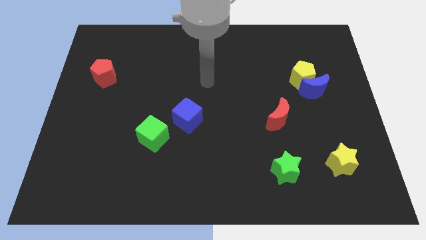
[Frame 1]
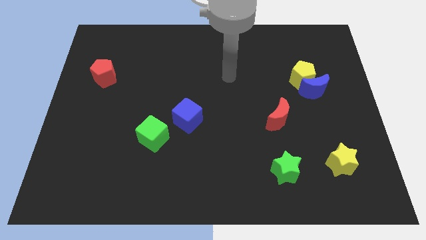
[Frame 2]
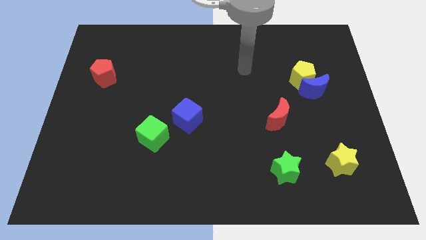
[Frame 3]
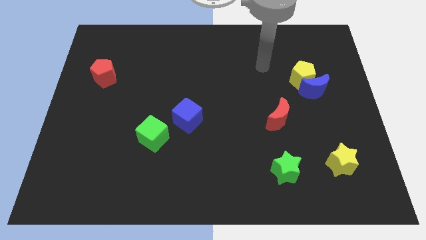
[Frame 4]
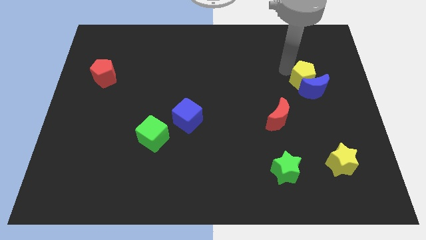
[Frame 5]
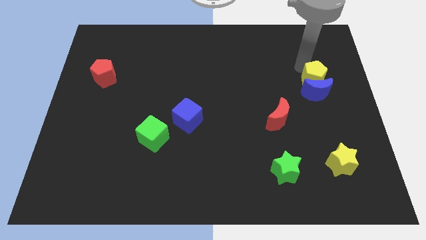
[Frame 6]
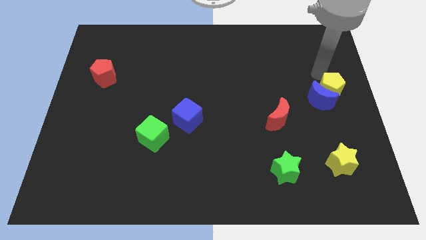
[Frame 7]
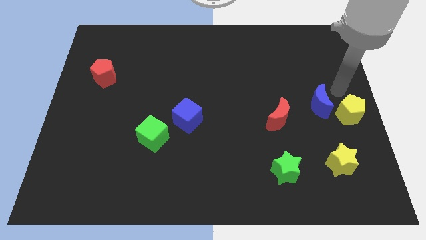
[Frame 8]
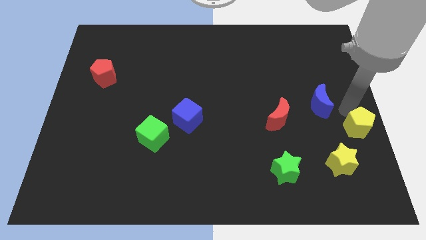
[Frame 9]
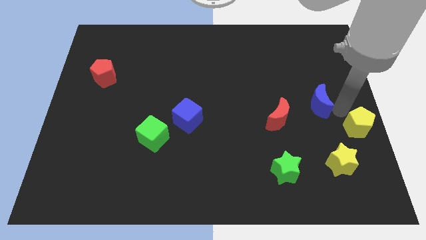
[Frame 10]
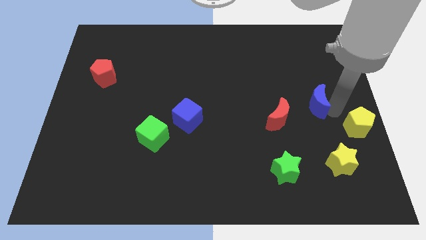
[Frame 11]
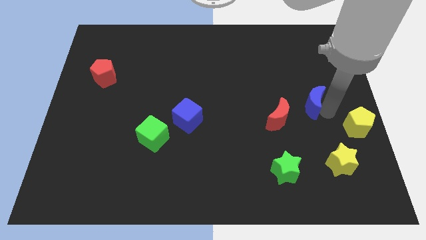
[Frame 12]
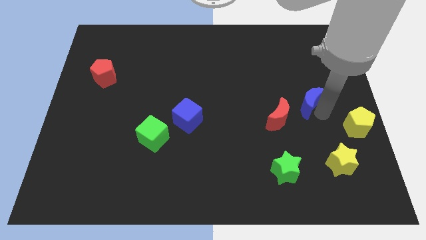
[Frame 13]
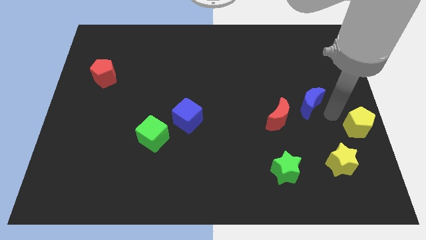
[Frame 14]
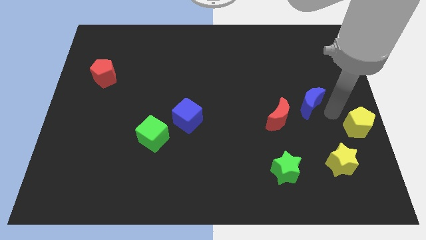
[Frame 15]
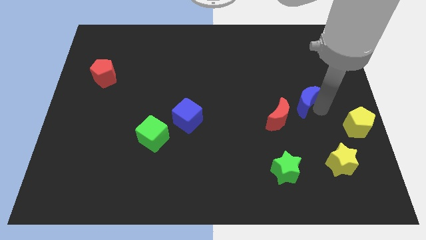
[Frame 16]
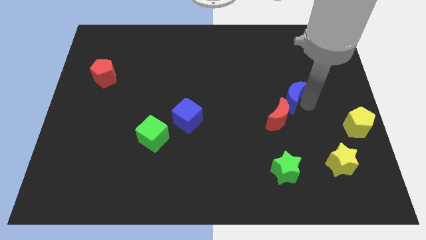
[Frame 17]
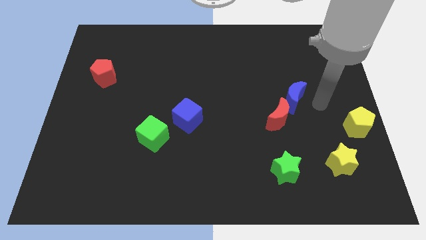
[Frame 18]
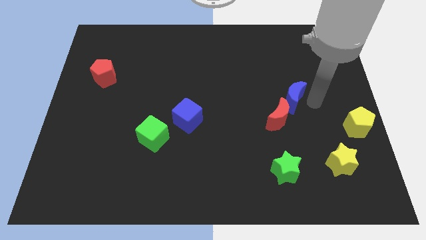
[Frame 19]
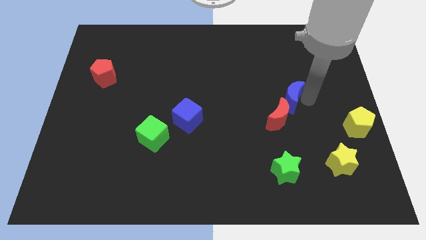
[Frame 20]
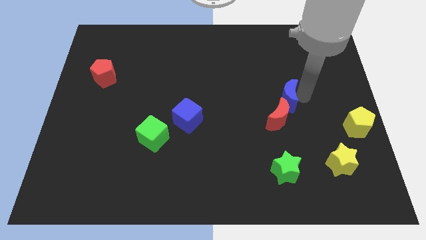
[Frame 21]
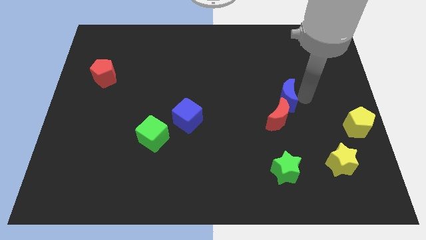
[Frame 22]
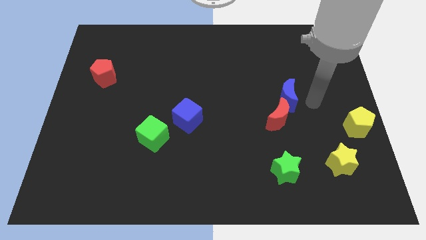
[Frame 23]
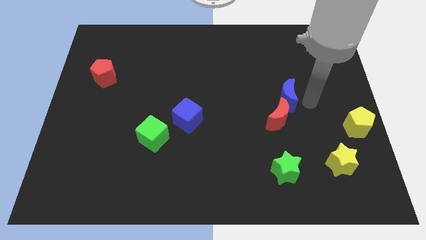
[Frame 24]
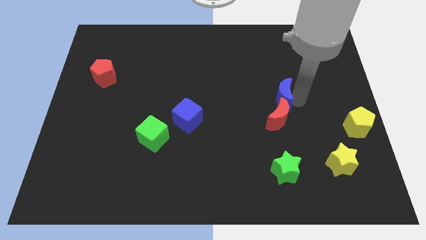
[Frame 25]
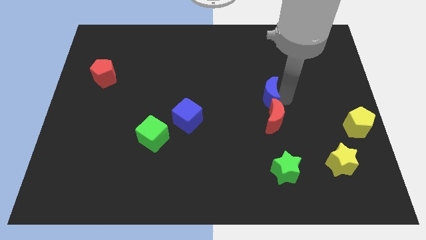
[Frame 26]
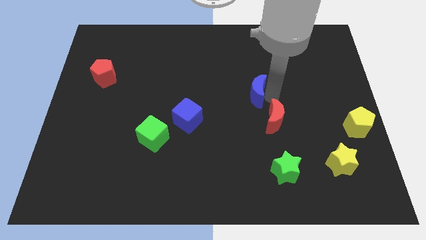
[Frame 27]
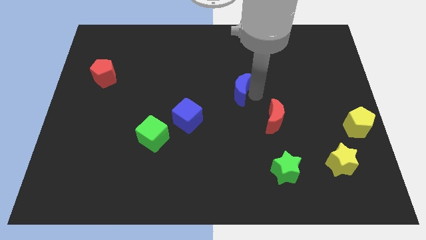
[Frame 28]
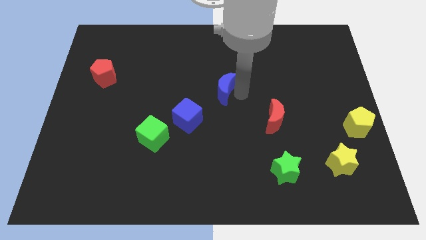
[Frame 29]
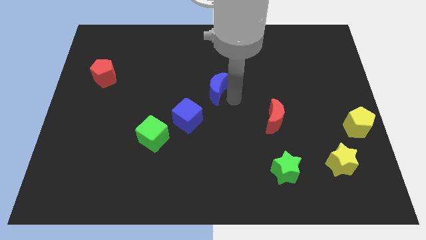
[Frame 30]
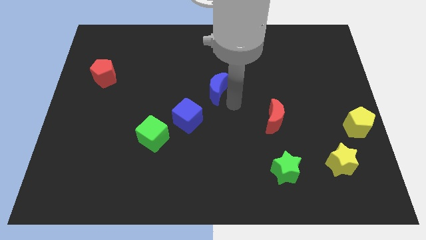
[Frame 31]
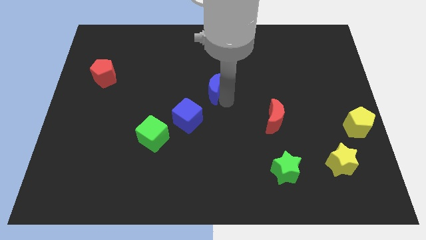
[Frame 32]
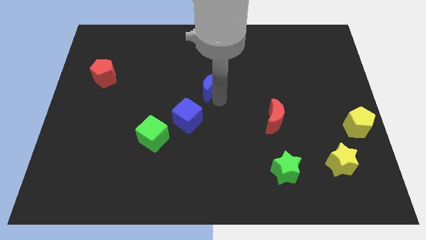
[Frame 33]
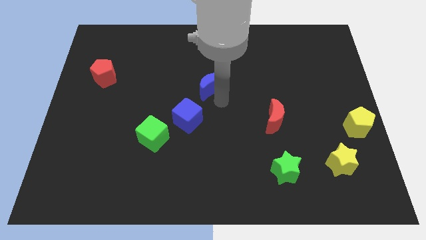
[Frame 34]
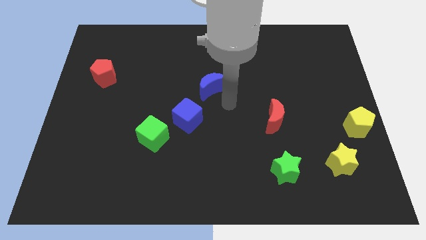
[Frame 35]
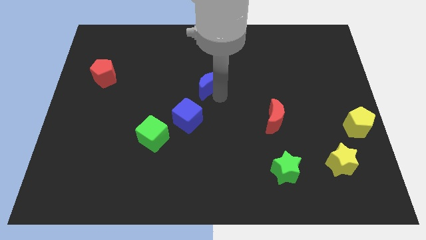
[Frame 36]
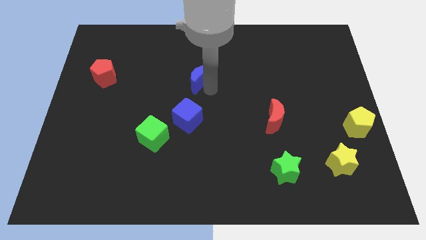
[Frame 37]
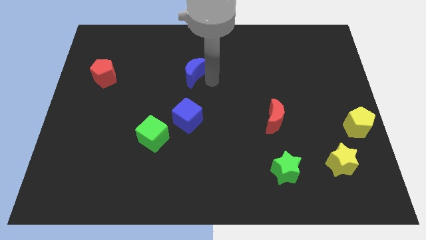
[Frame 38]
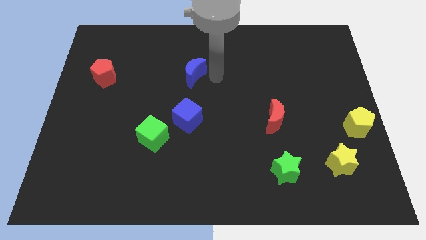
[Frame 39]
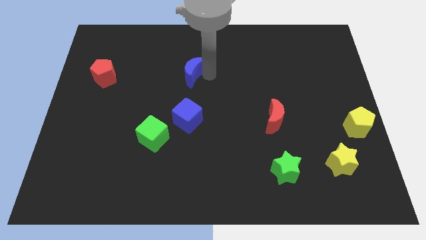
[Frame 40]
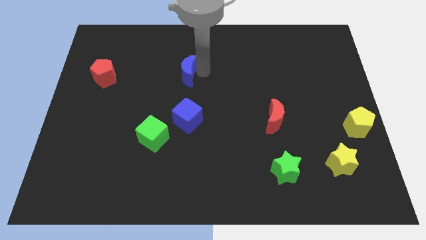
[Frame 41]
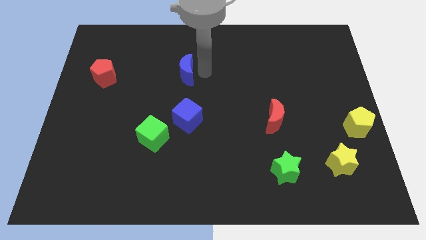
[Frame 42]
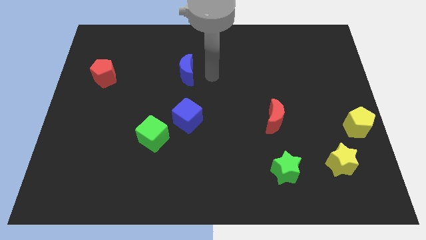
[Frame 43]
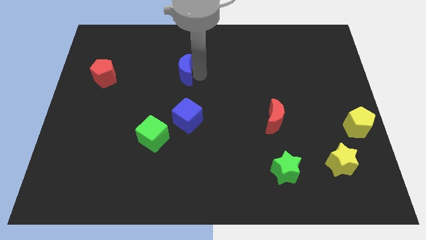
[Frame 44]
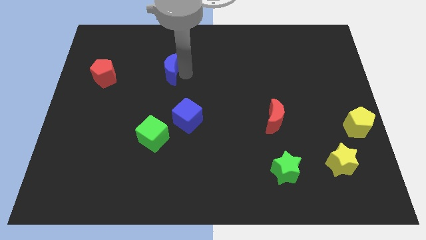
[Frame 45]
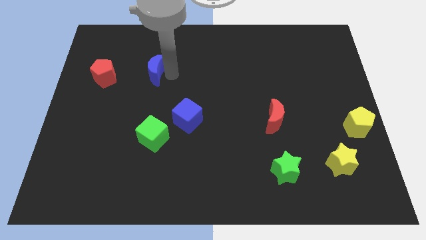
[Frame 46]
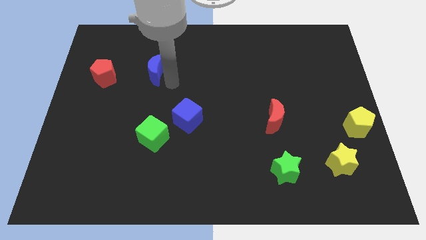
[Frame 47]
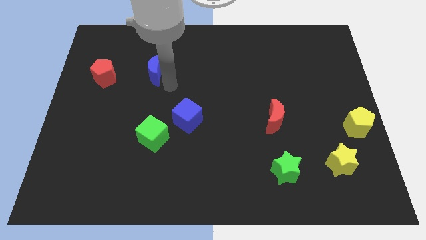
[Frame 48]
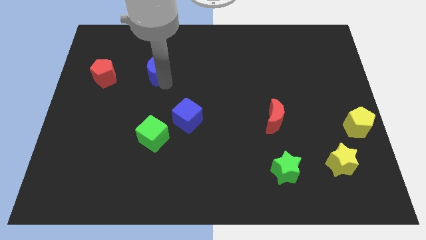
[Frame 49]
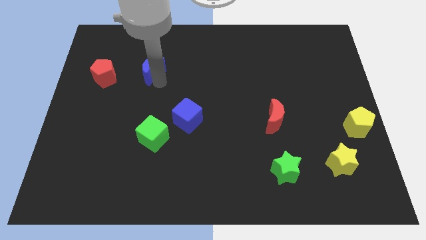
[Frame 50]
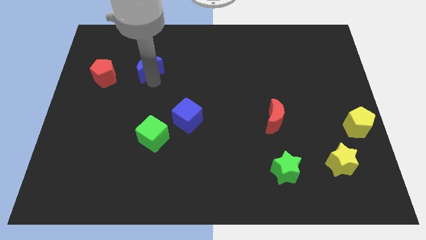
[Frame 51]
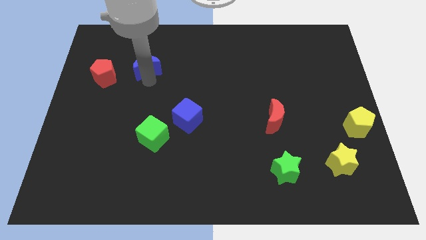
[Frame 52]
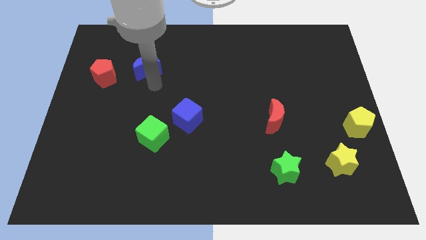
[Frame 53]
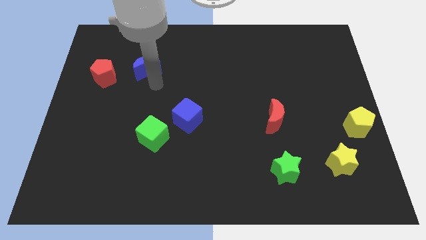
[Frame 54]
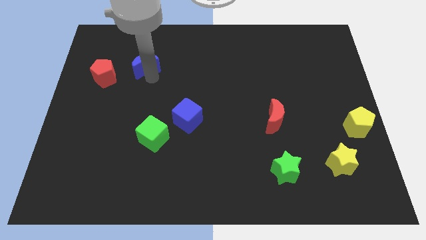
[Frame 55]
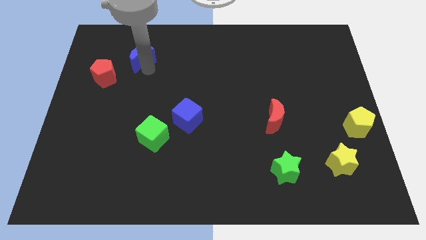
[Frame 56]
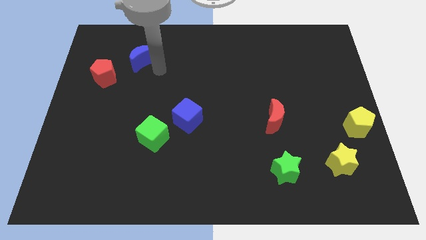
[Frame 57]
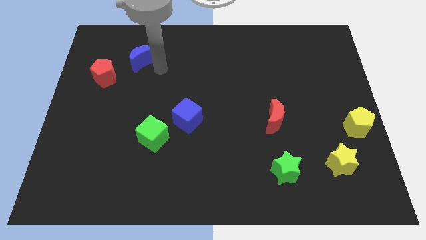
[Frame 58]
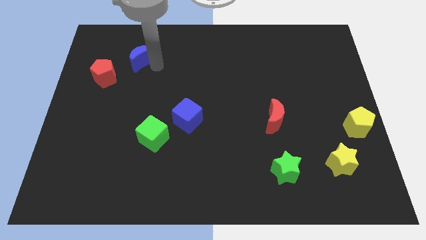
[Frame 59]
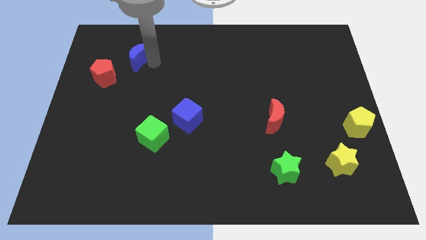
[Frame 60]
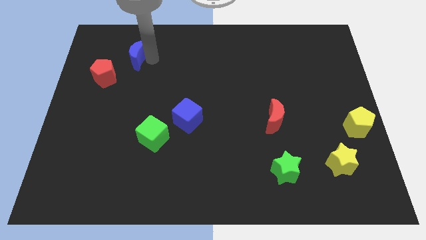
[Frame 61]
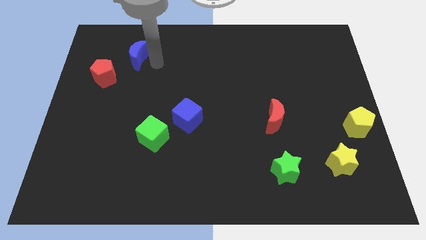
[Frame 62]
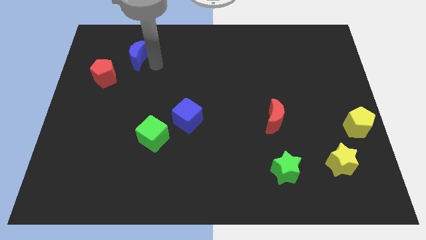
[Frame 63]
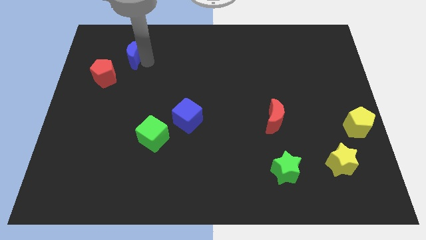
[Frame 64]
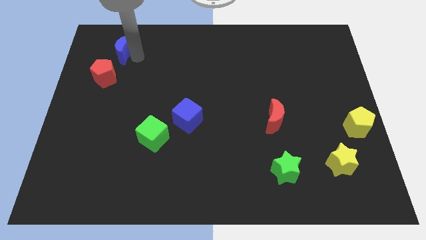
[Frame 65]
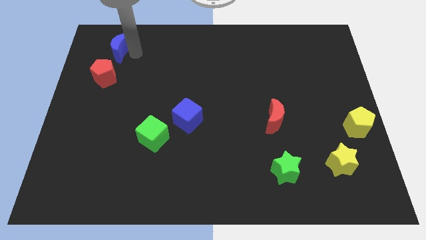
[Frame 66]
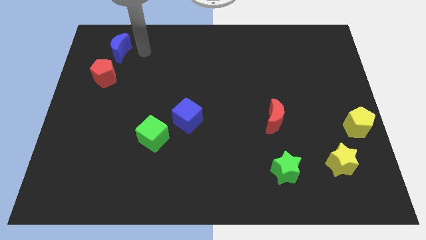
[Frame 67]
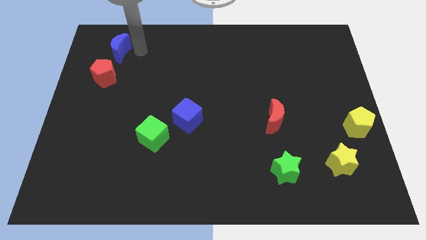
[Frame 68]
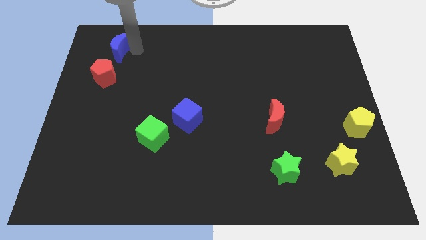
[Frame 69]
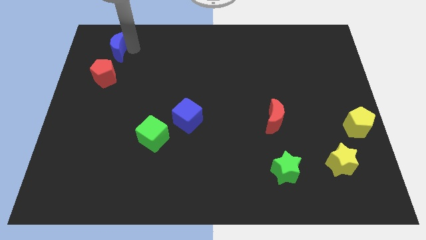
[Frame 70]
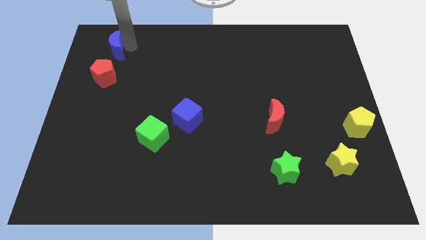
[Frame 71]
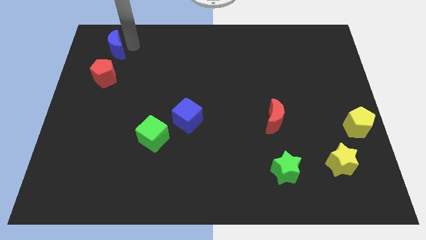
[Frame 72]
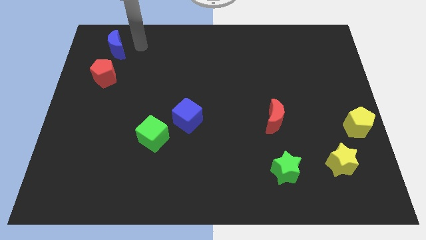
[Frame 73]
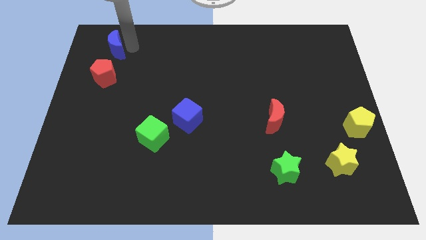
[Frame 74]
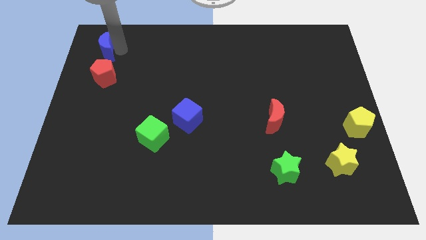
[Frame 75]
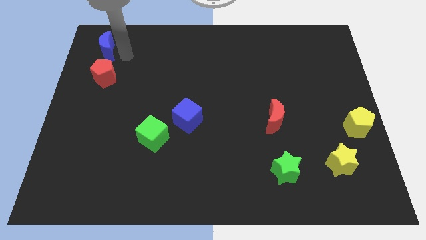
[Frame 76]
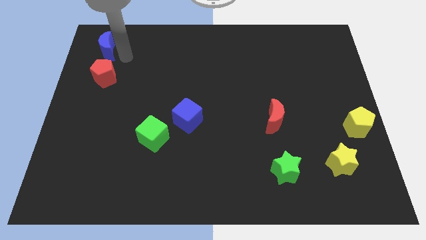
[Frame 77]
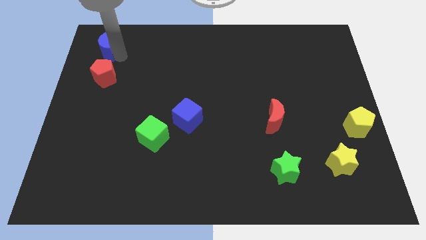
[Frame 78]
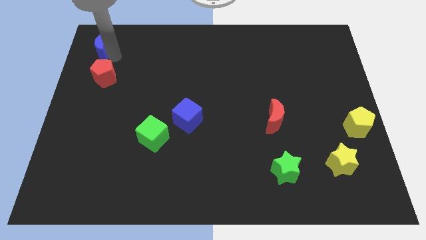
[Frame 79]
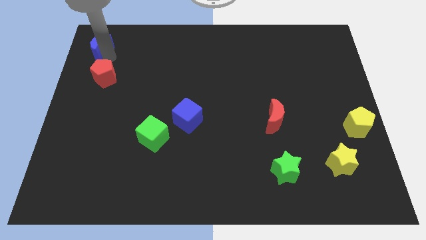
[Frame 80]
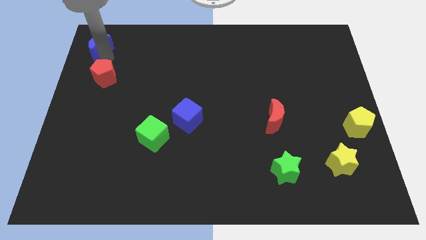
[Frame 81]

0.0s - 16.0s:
slide the blue moon to the top left
